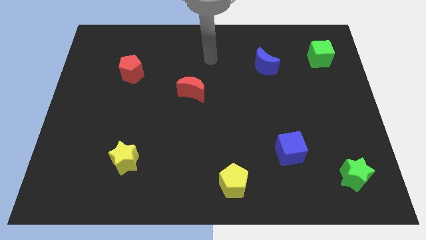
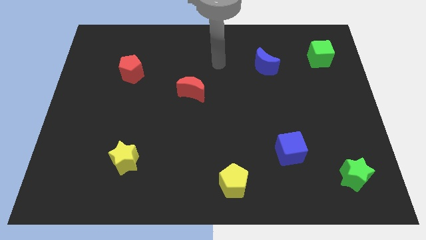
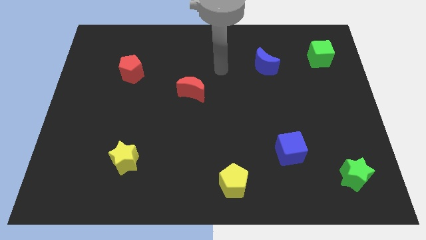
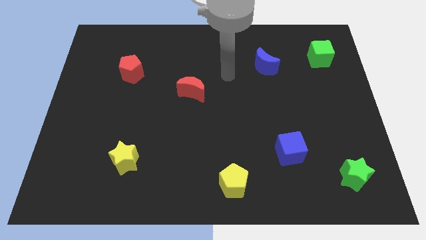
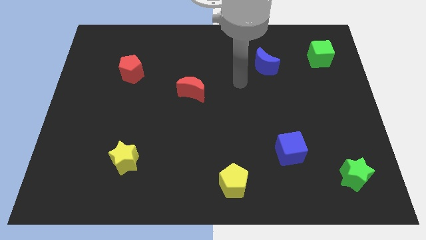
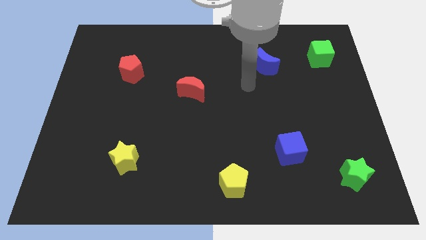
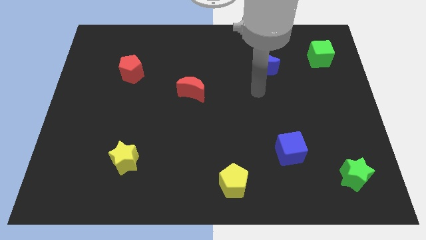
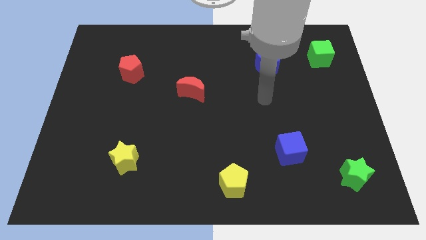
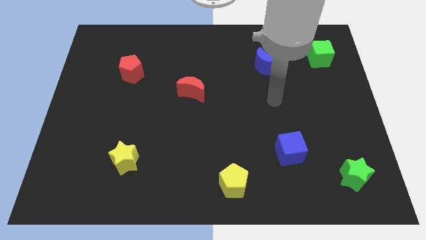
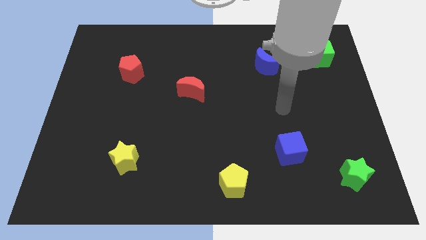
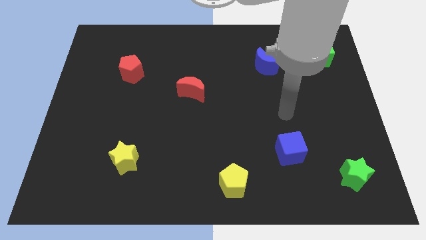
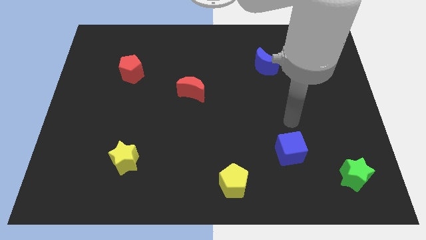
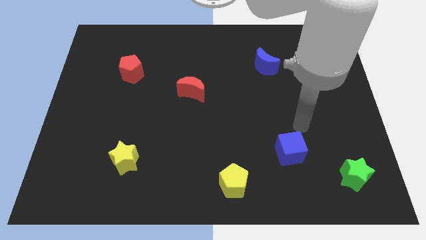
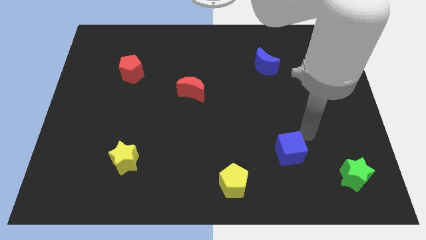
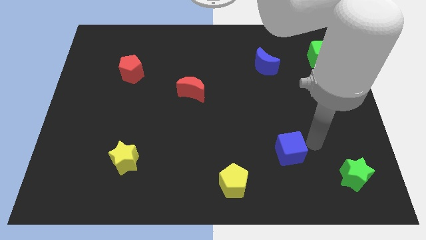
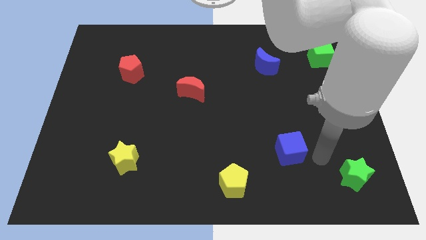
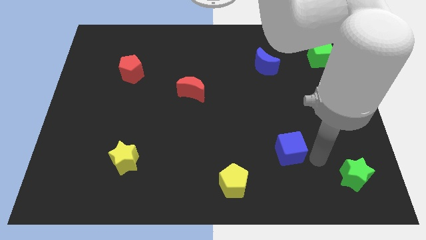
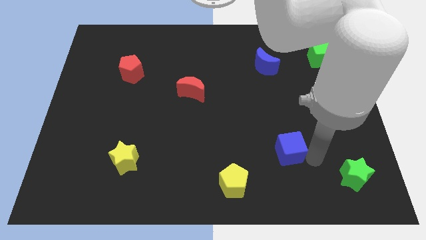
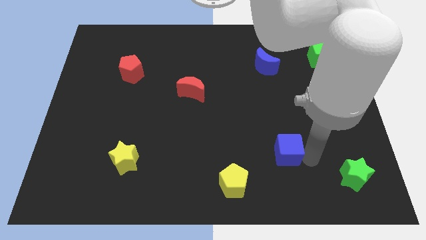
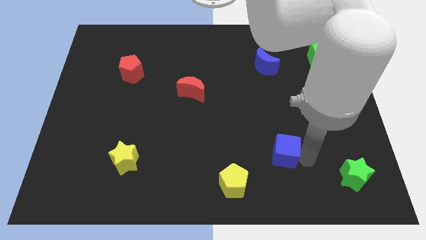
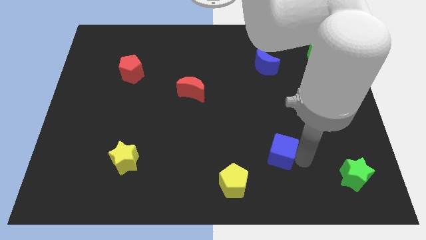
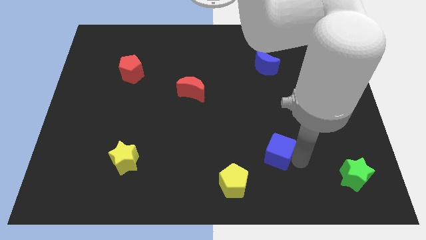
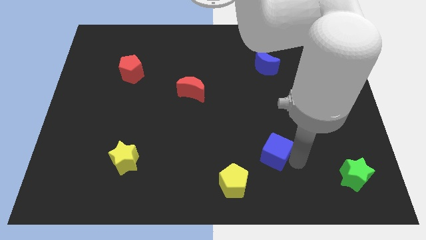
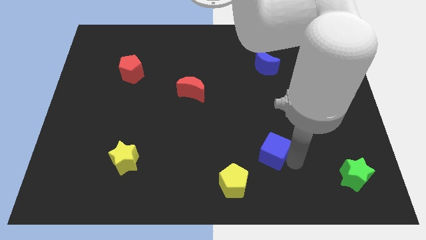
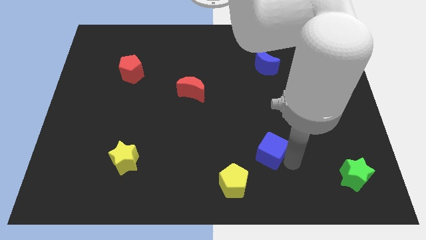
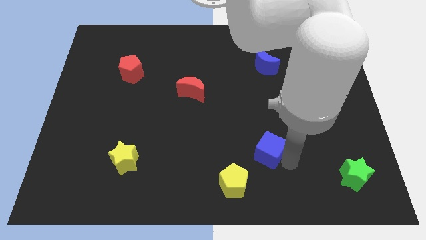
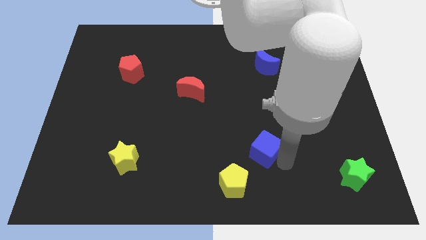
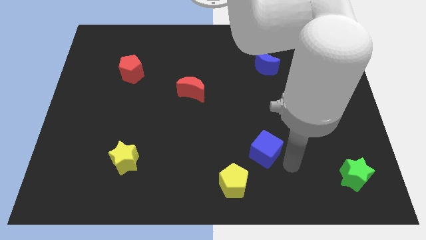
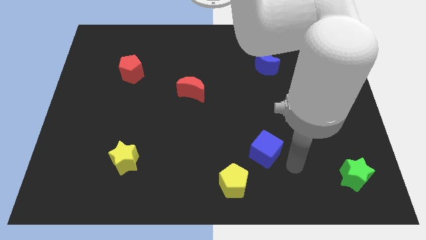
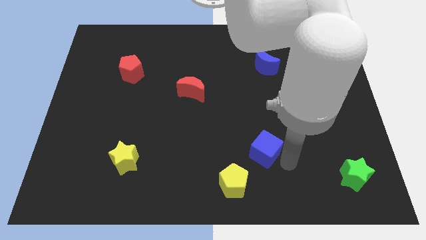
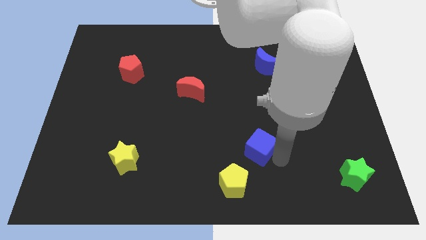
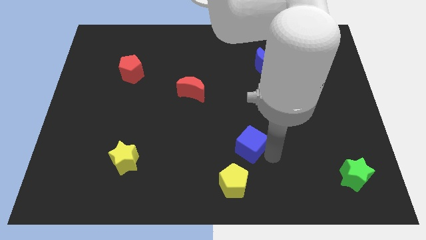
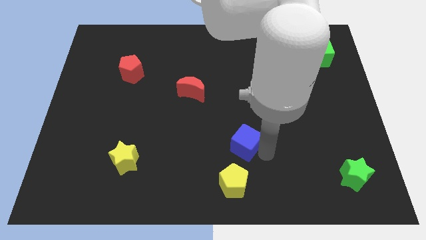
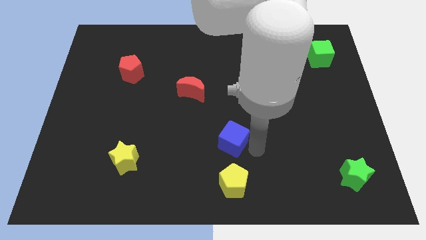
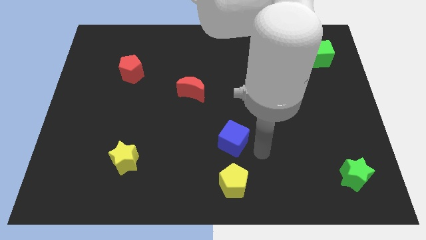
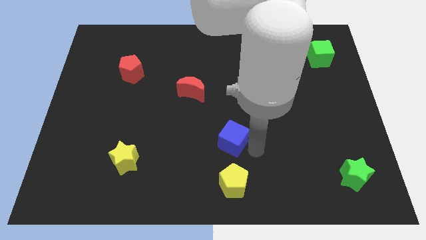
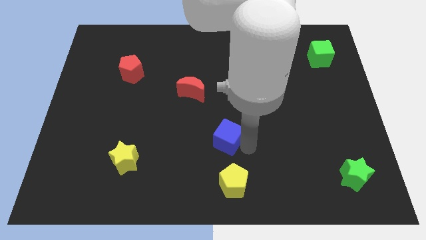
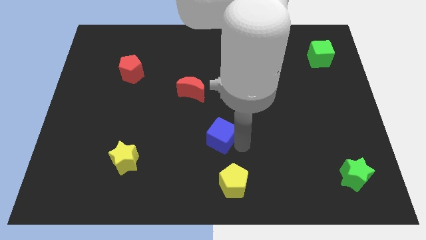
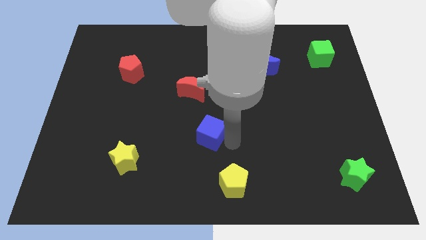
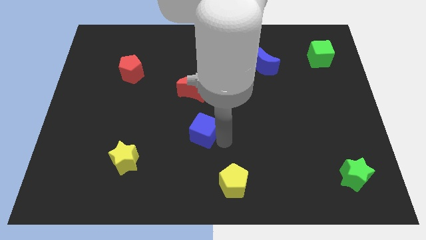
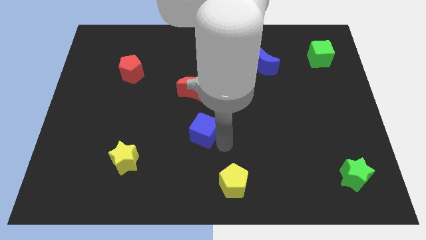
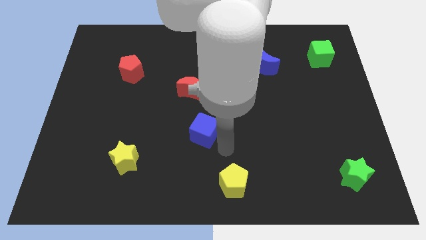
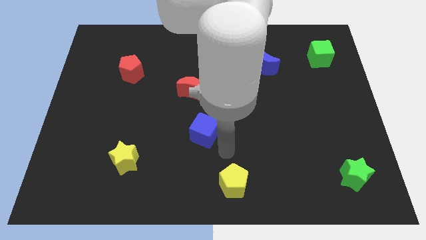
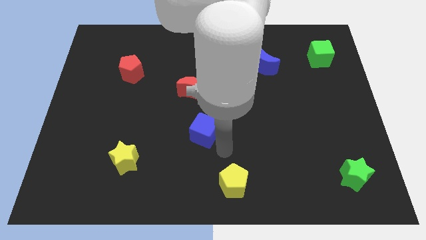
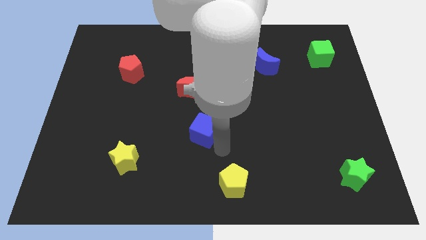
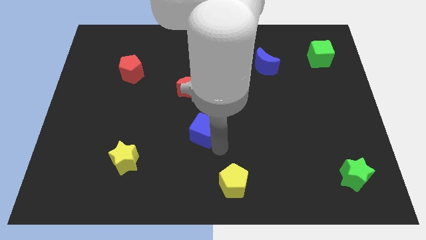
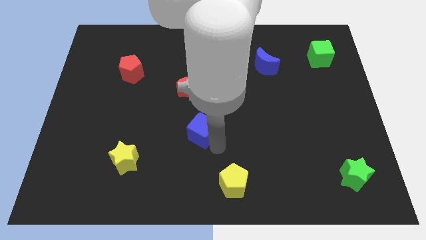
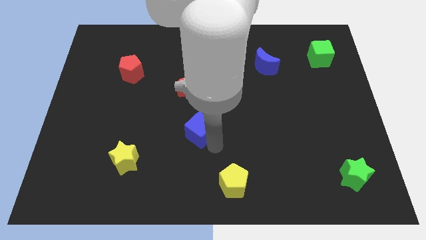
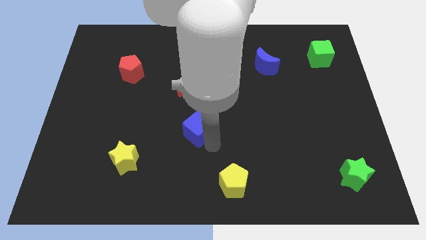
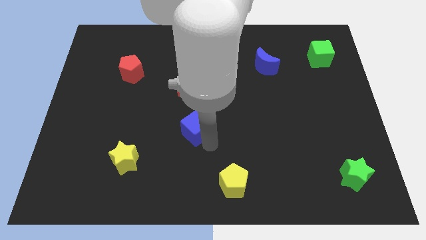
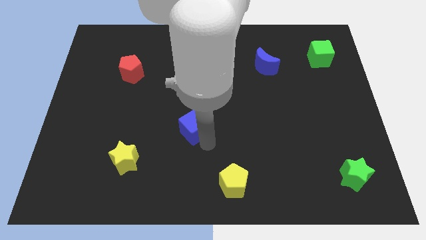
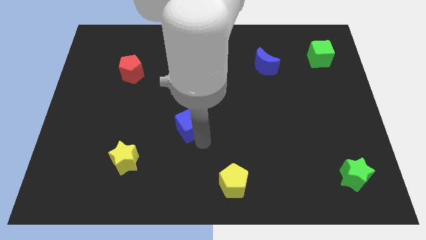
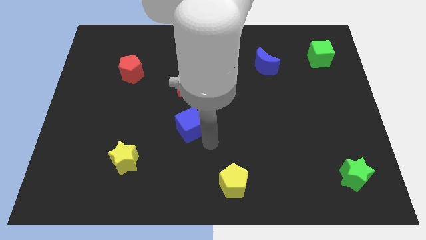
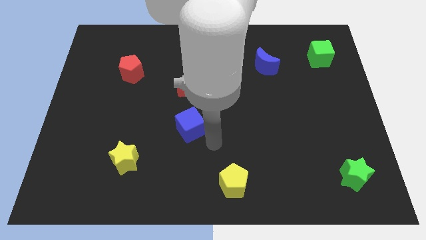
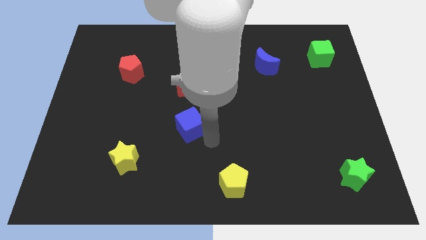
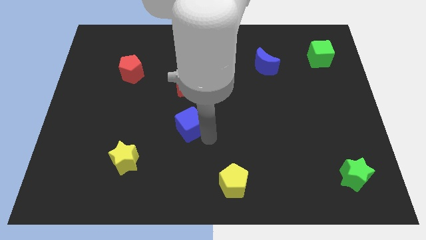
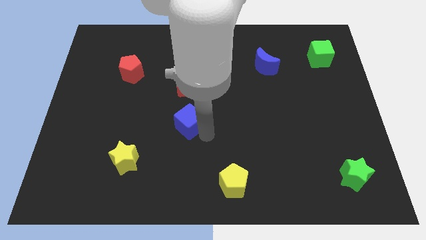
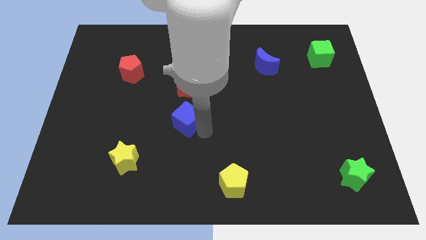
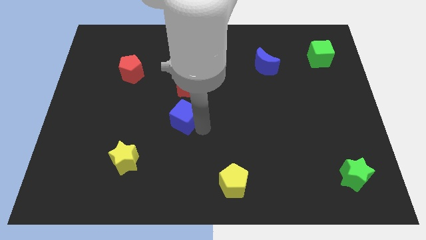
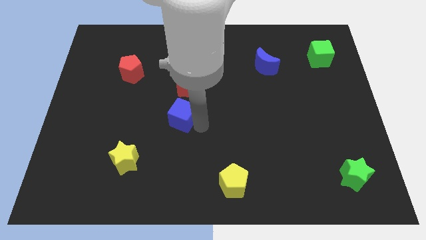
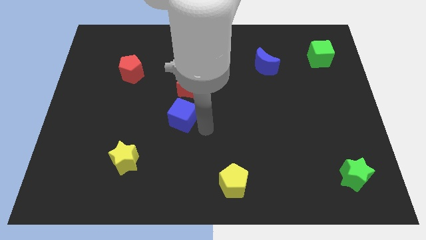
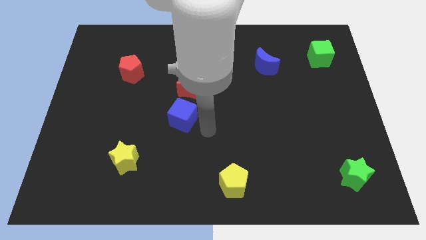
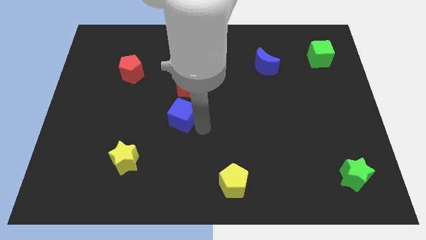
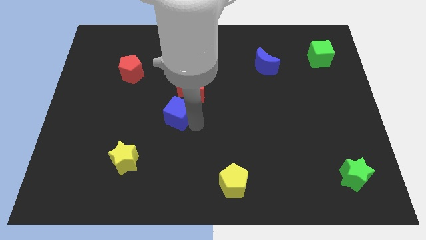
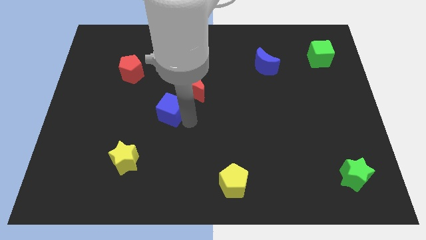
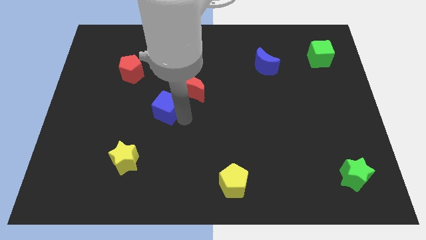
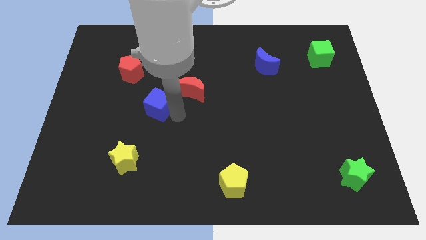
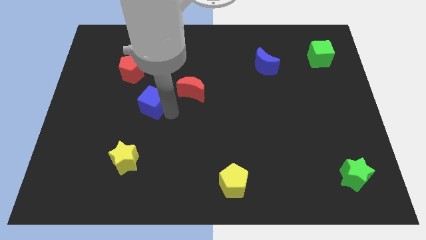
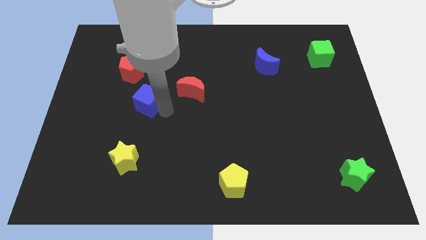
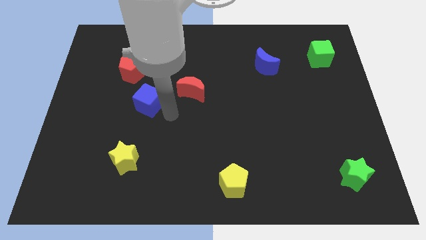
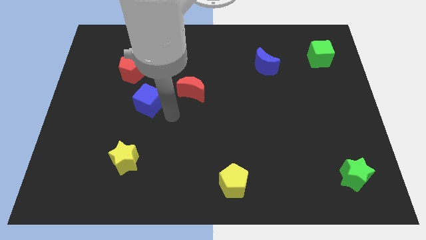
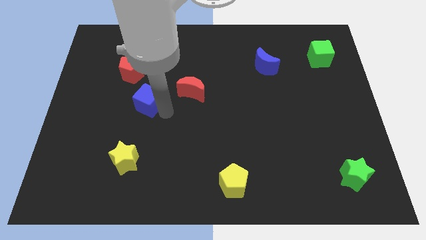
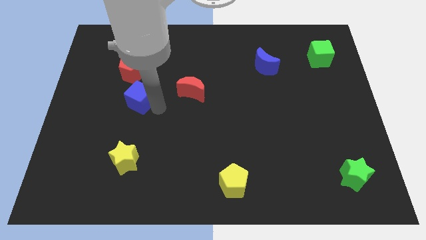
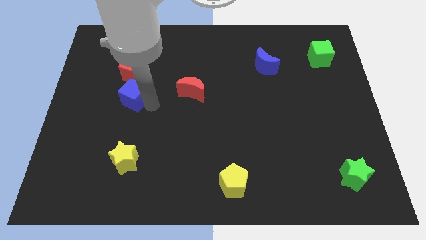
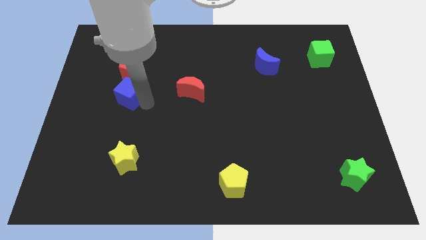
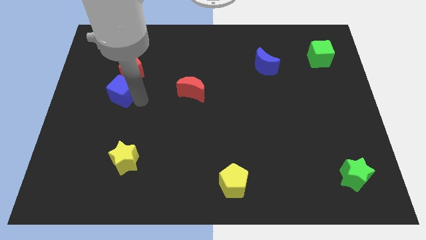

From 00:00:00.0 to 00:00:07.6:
put the blue cube to the bottom left side of the red pentagon
